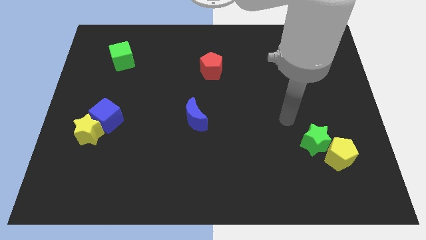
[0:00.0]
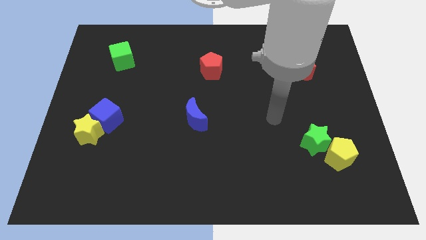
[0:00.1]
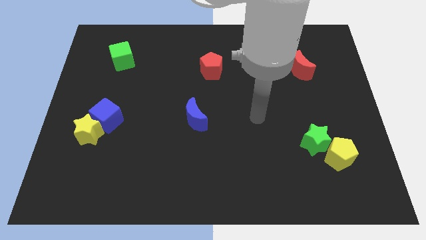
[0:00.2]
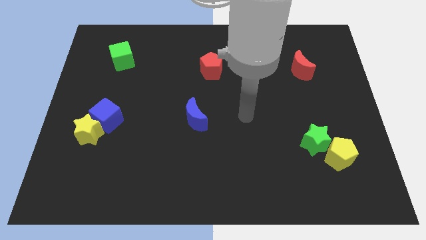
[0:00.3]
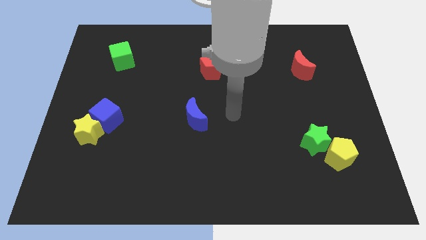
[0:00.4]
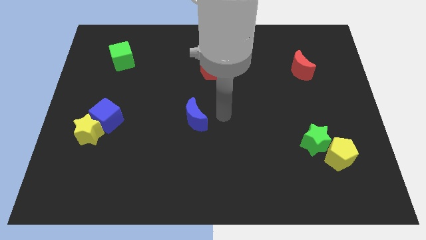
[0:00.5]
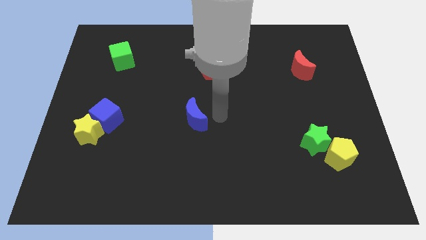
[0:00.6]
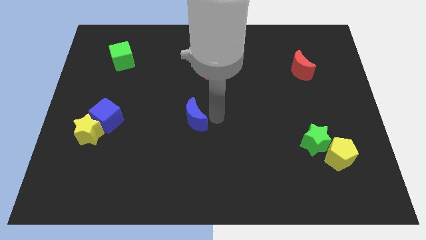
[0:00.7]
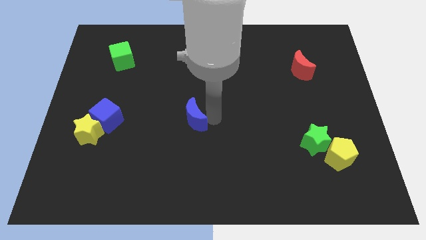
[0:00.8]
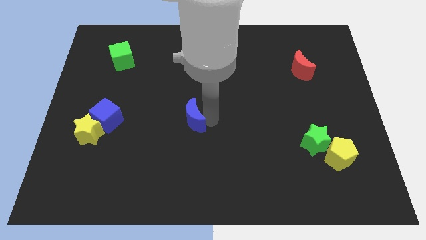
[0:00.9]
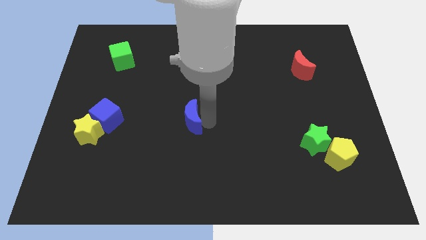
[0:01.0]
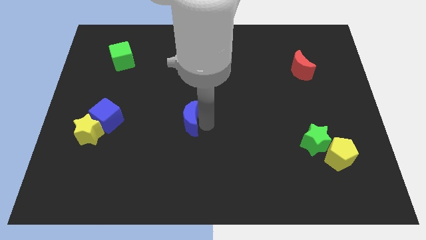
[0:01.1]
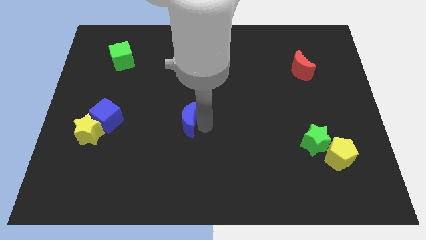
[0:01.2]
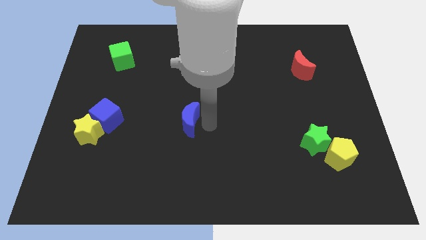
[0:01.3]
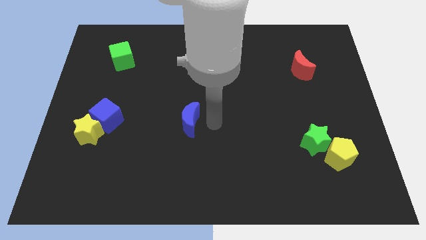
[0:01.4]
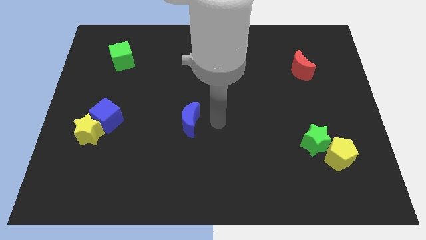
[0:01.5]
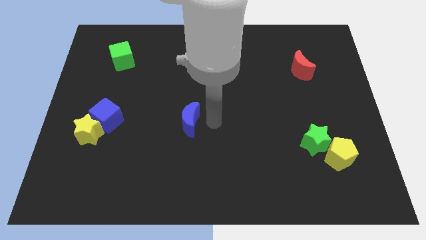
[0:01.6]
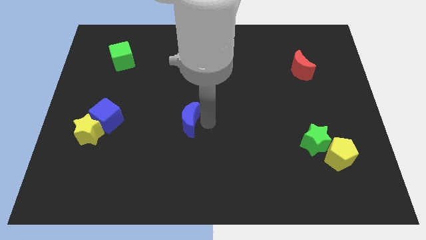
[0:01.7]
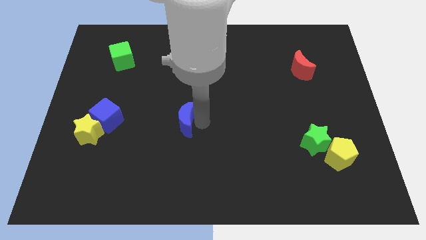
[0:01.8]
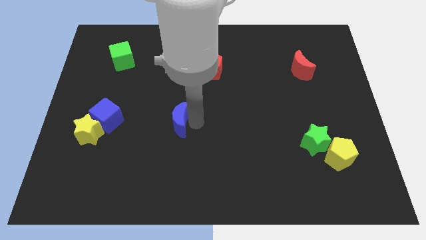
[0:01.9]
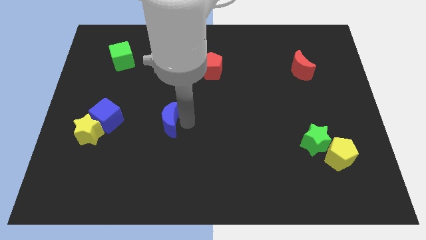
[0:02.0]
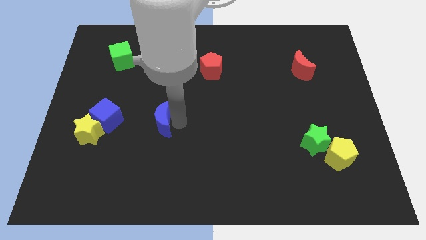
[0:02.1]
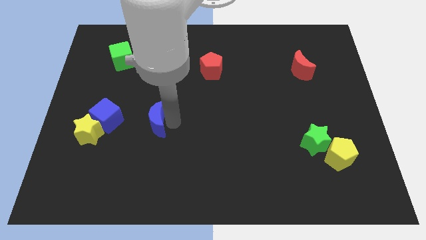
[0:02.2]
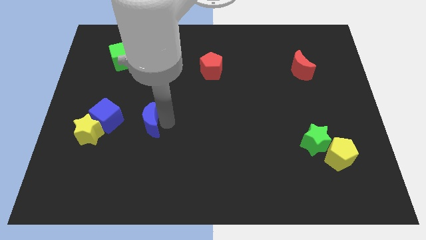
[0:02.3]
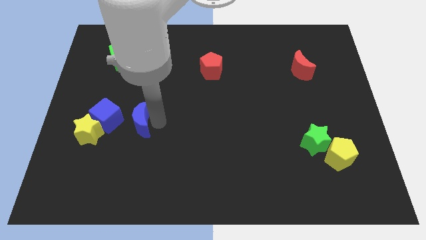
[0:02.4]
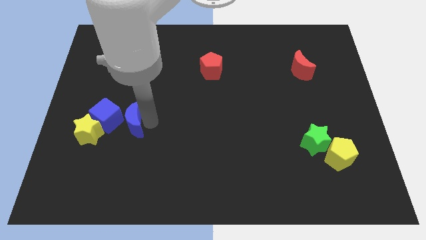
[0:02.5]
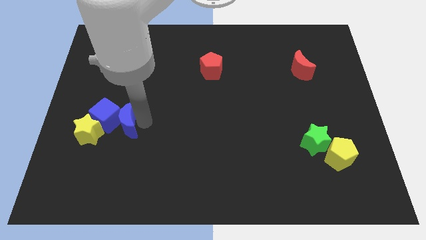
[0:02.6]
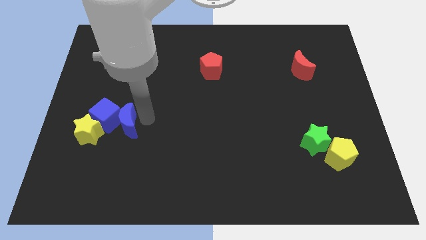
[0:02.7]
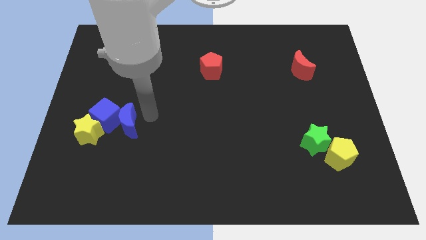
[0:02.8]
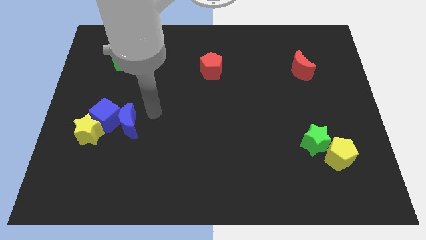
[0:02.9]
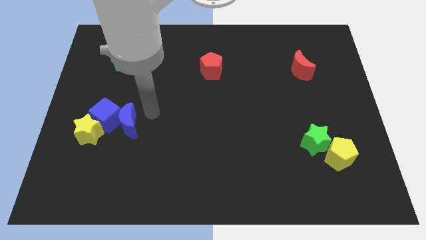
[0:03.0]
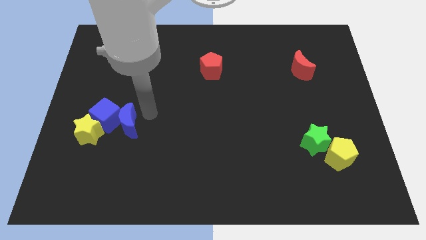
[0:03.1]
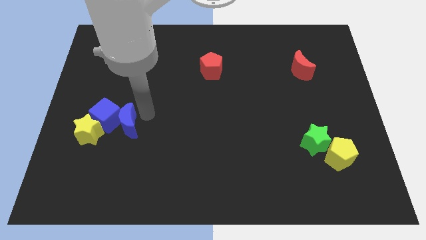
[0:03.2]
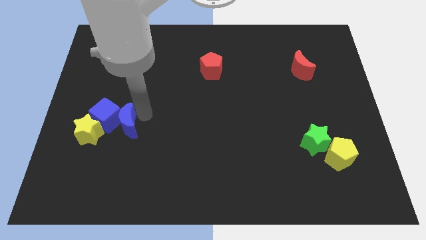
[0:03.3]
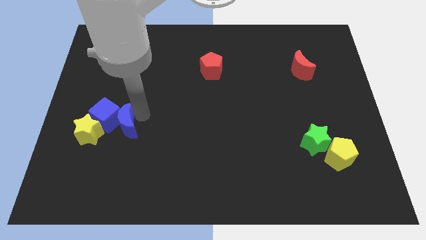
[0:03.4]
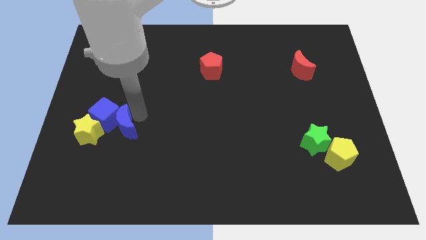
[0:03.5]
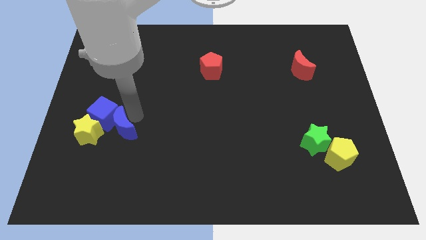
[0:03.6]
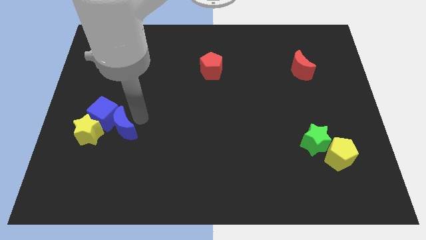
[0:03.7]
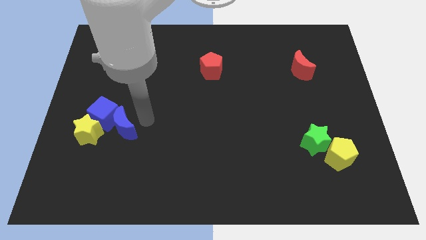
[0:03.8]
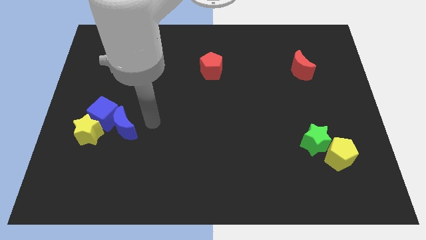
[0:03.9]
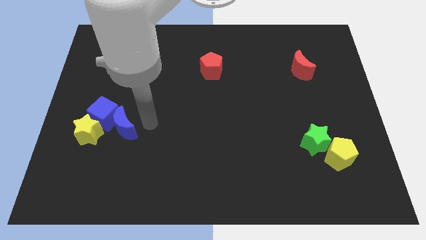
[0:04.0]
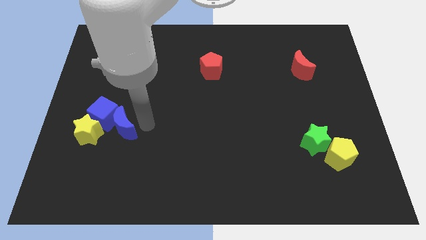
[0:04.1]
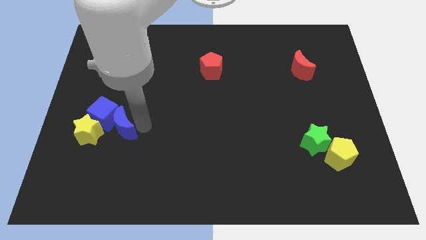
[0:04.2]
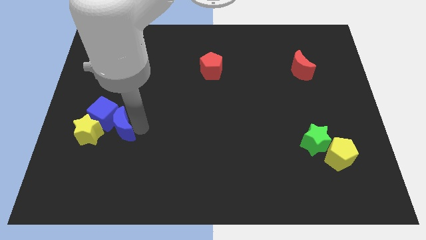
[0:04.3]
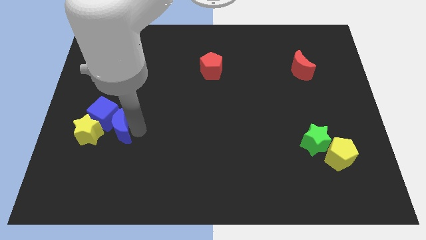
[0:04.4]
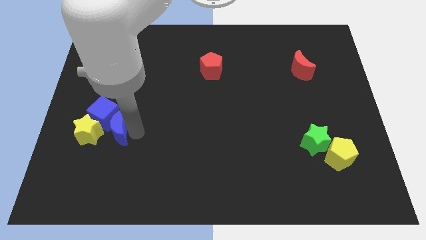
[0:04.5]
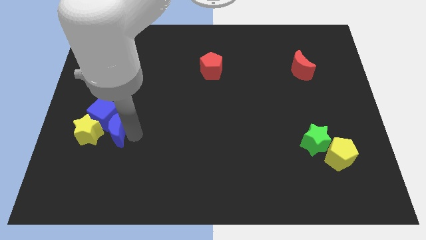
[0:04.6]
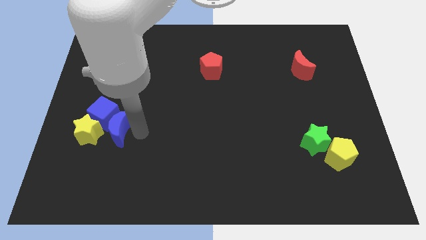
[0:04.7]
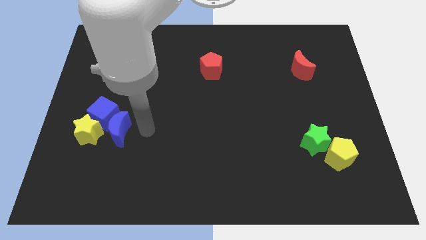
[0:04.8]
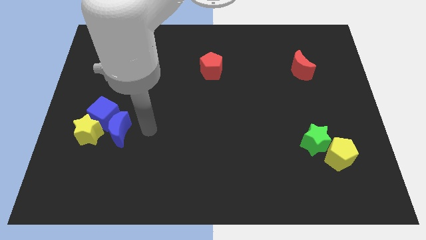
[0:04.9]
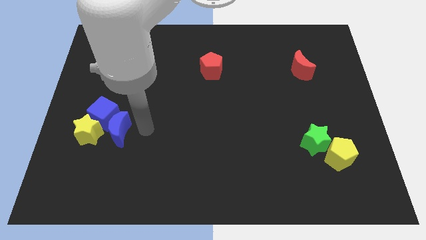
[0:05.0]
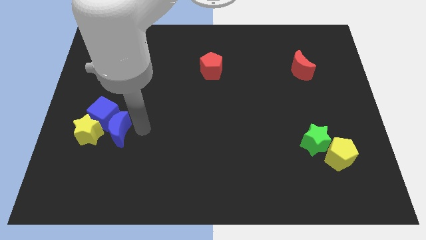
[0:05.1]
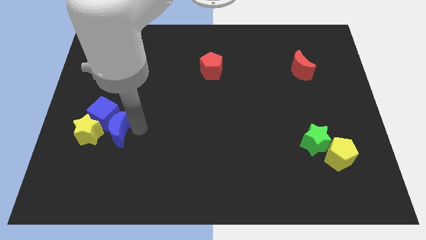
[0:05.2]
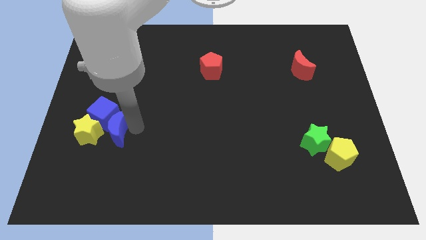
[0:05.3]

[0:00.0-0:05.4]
slide the blue moon to the yellow star
